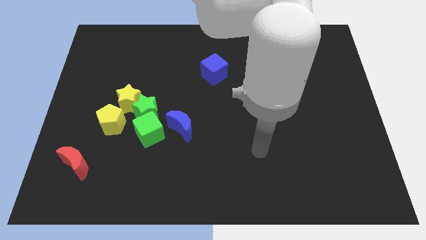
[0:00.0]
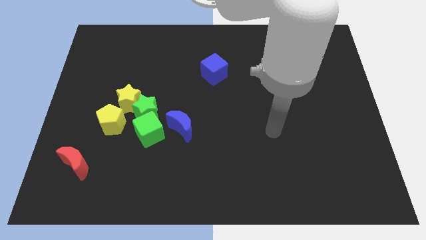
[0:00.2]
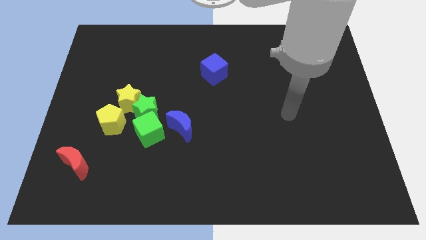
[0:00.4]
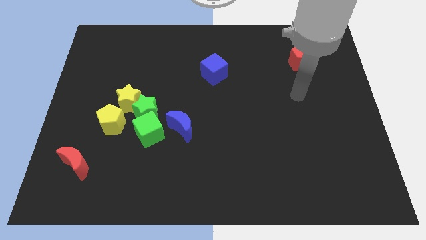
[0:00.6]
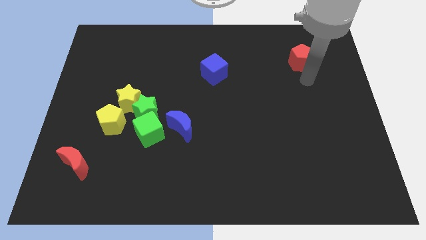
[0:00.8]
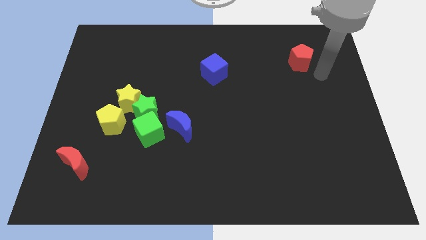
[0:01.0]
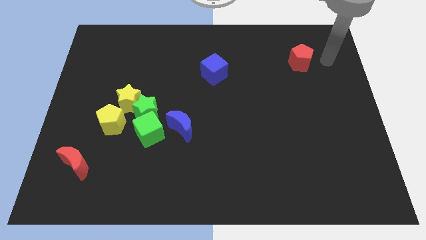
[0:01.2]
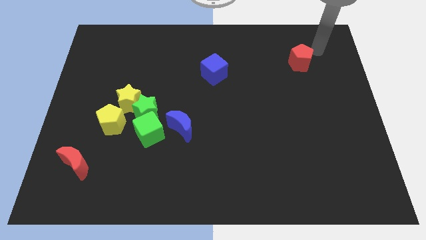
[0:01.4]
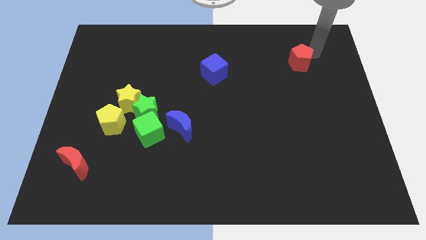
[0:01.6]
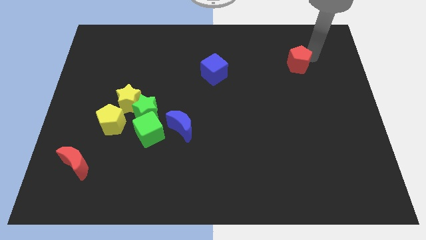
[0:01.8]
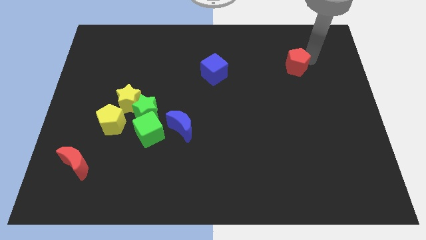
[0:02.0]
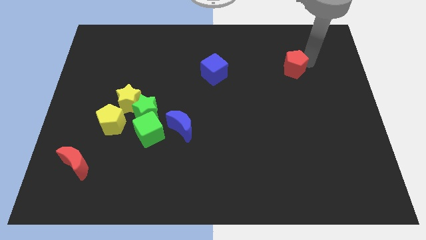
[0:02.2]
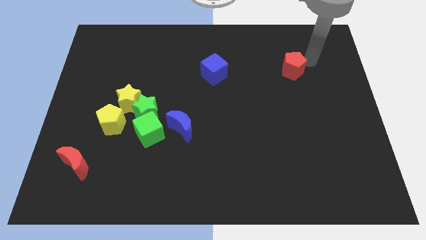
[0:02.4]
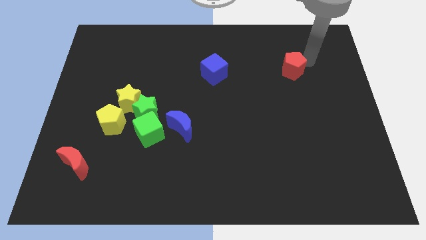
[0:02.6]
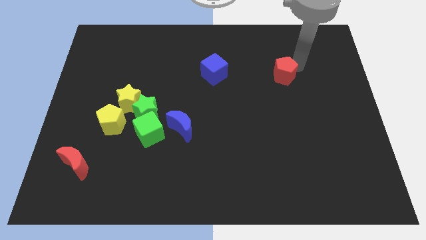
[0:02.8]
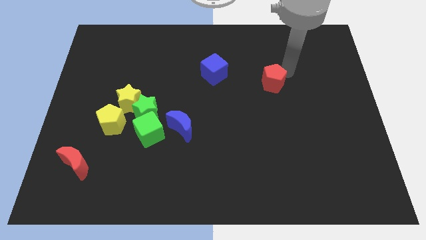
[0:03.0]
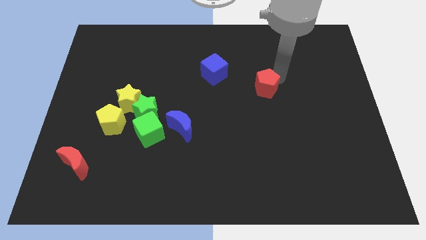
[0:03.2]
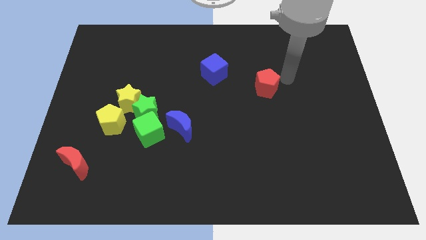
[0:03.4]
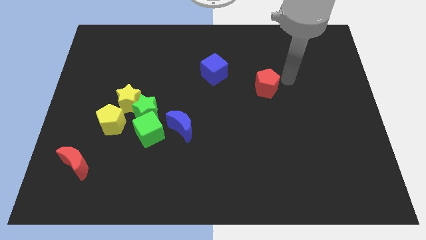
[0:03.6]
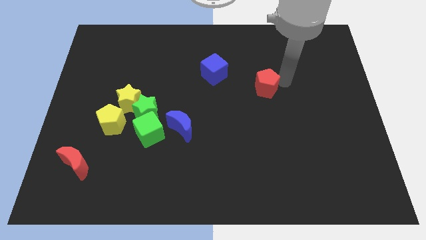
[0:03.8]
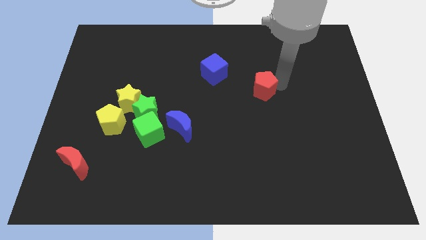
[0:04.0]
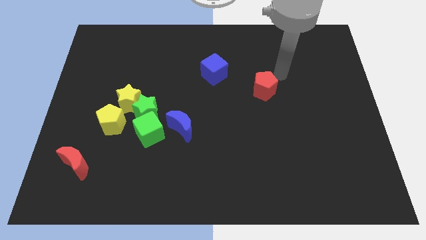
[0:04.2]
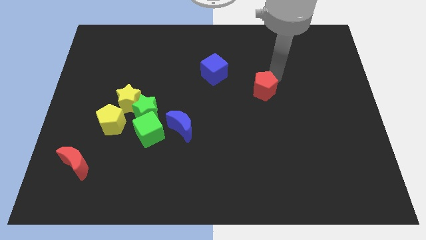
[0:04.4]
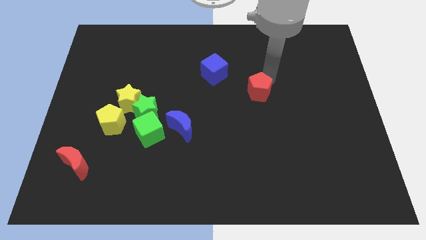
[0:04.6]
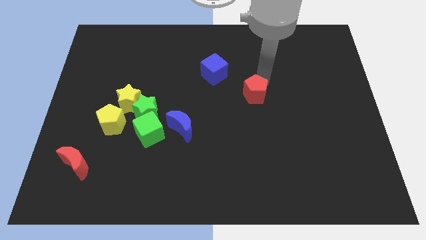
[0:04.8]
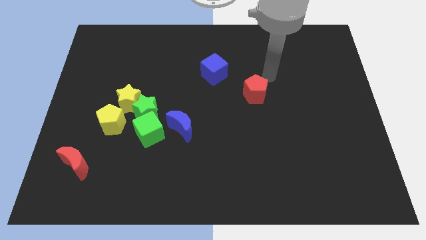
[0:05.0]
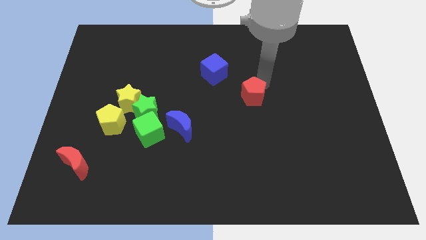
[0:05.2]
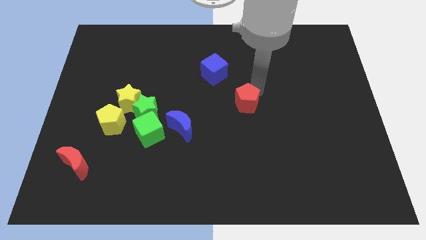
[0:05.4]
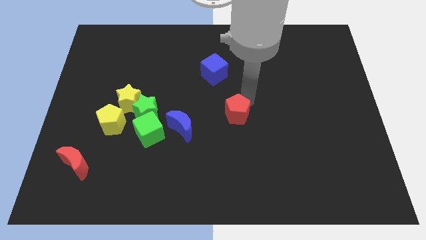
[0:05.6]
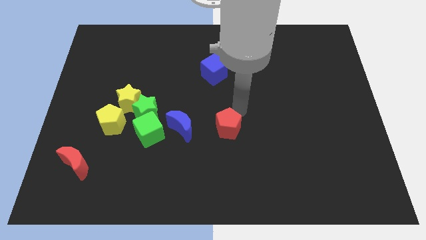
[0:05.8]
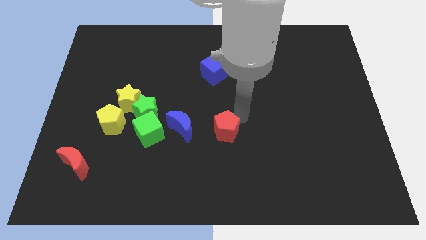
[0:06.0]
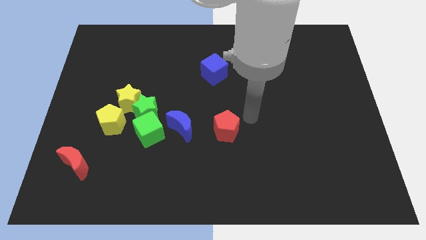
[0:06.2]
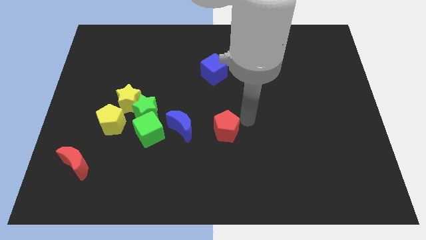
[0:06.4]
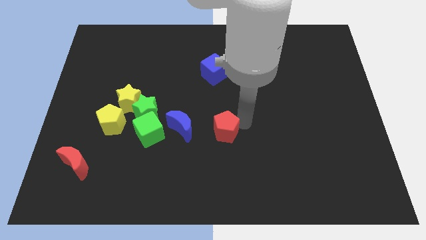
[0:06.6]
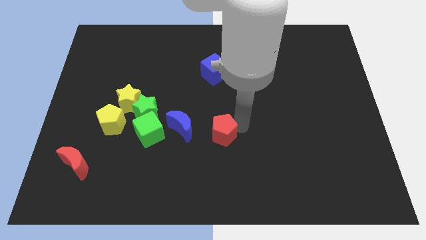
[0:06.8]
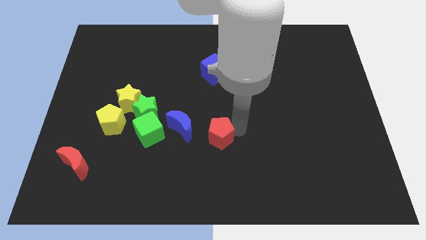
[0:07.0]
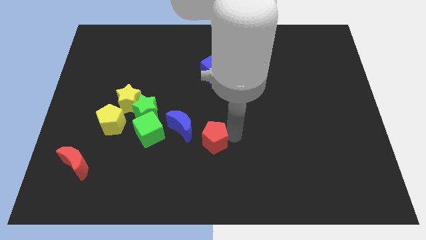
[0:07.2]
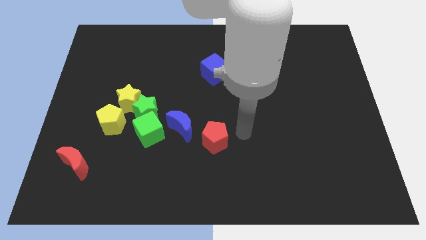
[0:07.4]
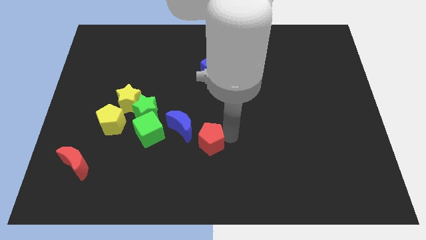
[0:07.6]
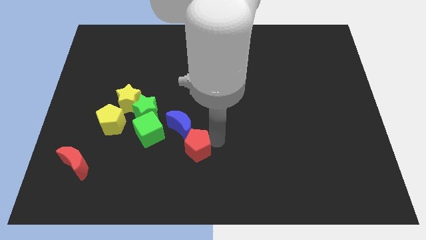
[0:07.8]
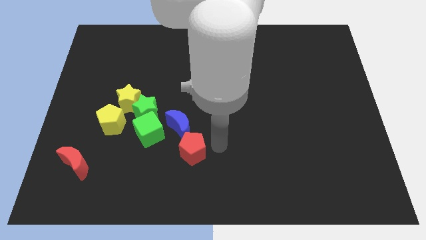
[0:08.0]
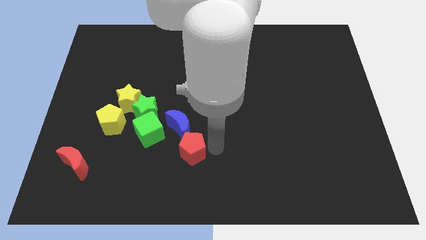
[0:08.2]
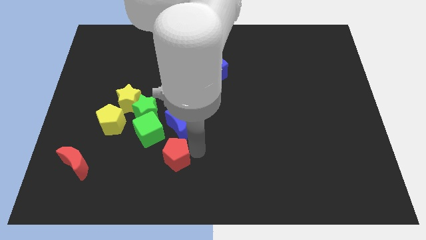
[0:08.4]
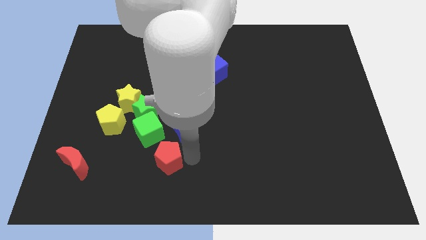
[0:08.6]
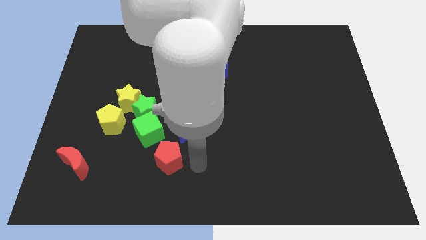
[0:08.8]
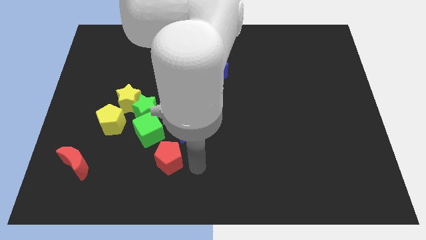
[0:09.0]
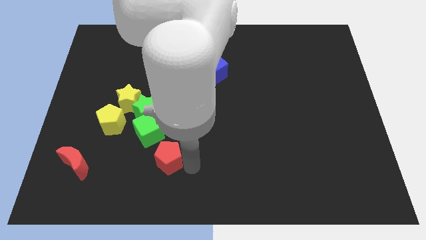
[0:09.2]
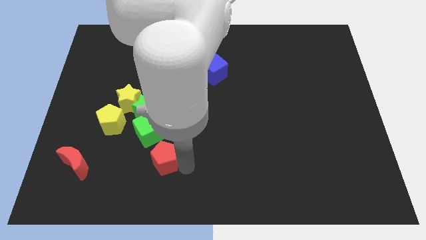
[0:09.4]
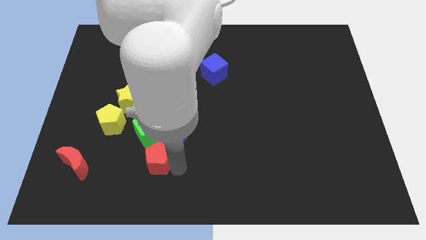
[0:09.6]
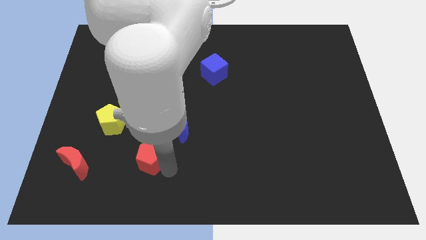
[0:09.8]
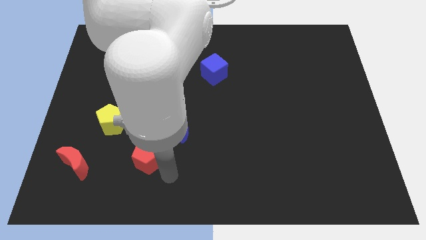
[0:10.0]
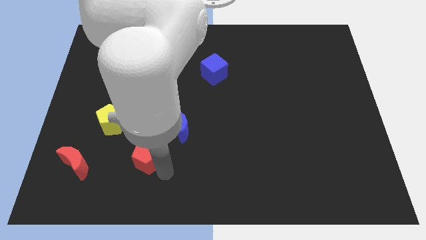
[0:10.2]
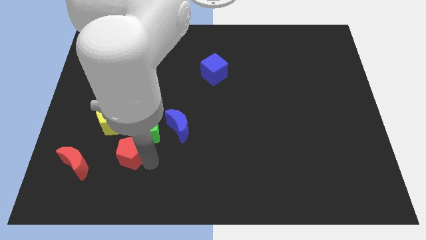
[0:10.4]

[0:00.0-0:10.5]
push the red pentagon to the bottom of the yellow star

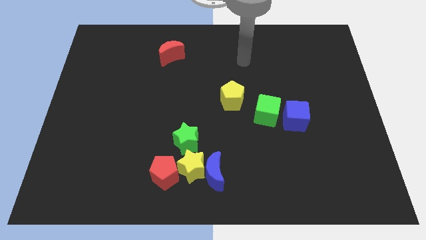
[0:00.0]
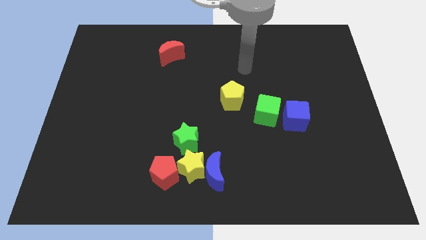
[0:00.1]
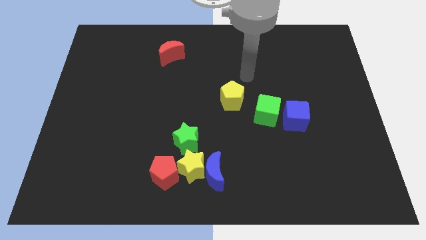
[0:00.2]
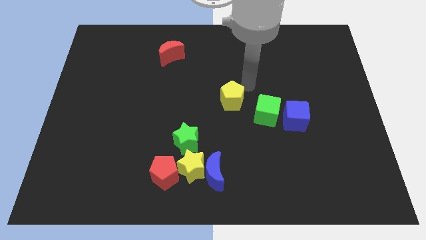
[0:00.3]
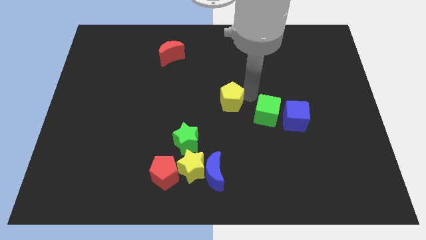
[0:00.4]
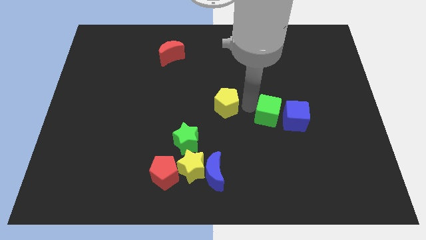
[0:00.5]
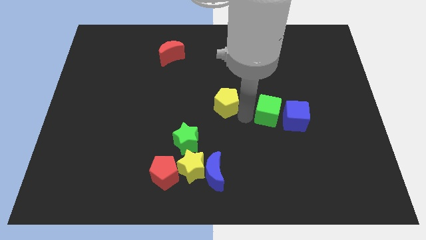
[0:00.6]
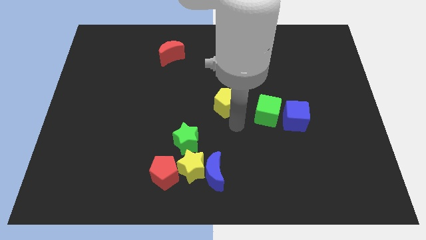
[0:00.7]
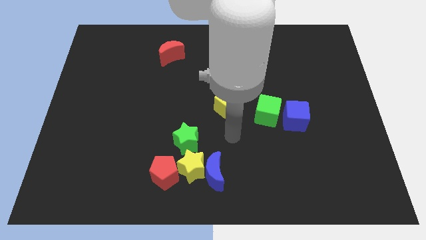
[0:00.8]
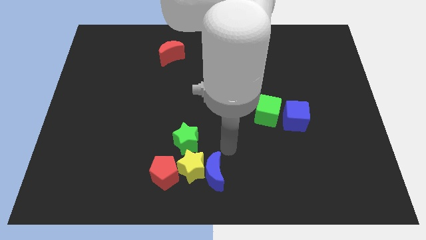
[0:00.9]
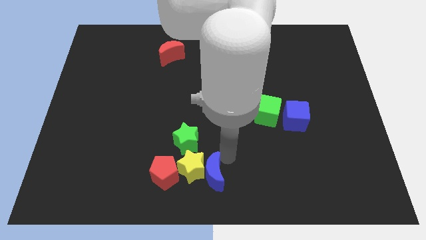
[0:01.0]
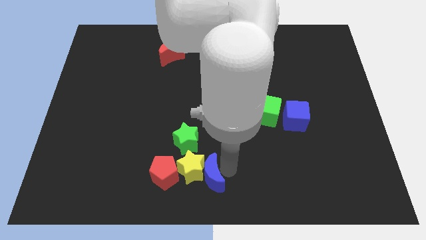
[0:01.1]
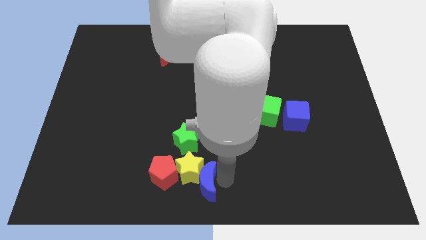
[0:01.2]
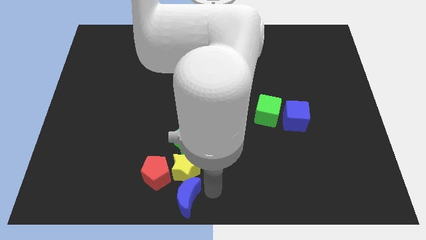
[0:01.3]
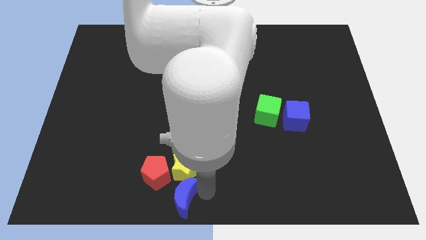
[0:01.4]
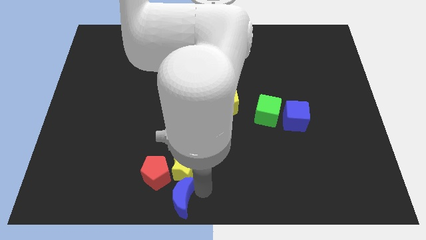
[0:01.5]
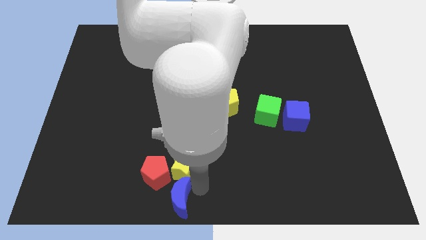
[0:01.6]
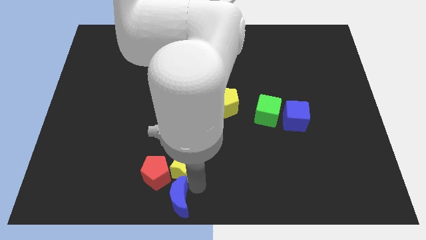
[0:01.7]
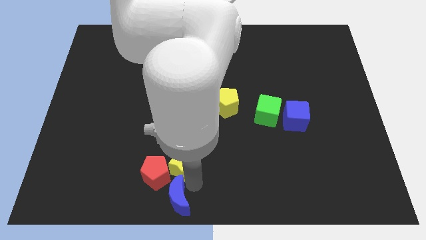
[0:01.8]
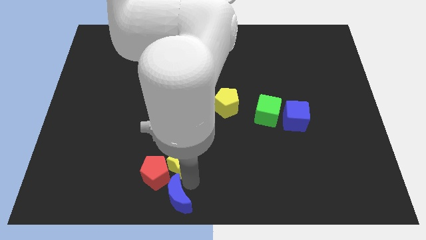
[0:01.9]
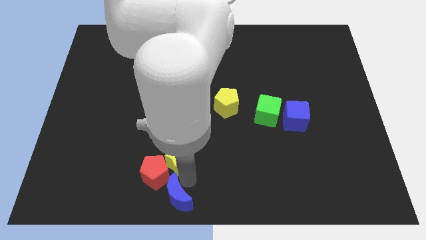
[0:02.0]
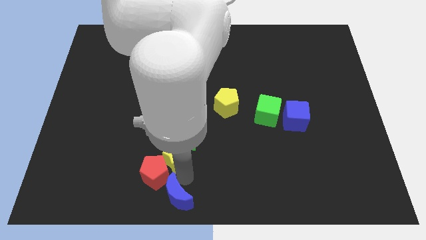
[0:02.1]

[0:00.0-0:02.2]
push the yellow star to the top side of the red pentagon
